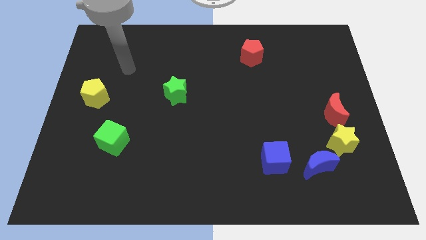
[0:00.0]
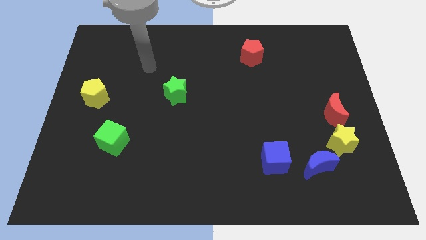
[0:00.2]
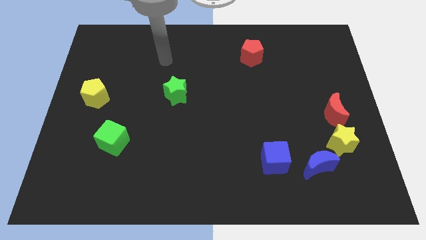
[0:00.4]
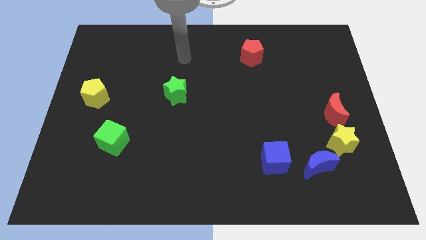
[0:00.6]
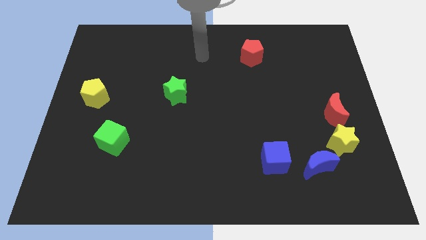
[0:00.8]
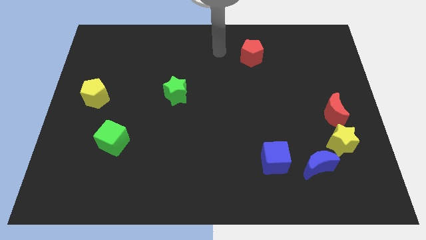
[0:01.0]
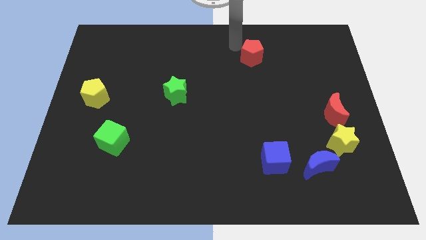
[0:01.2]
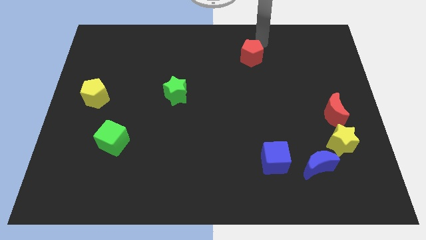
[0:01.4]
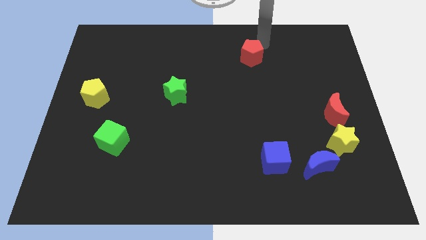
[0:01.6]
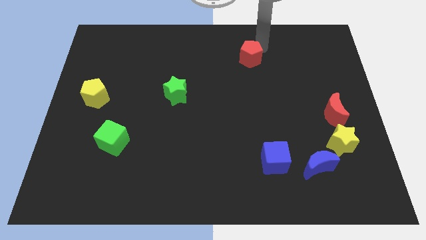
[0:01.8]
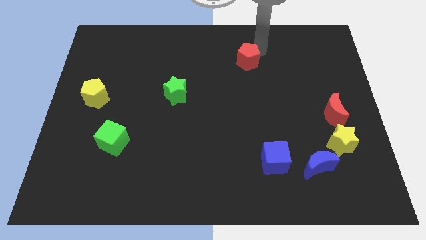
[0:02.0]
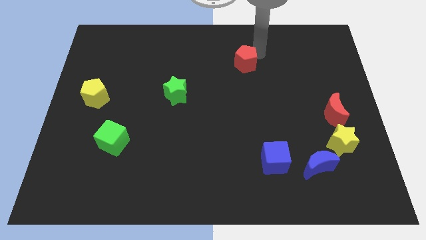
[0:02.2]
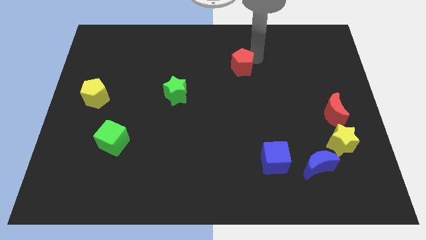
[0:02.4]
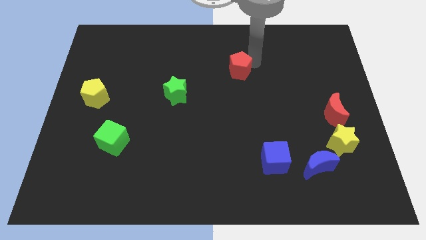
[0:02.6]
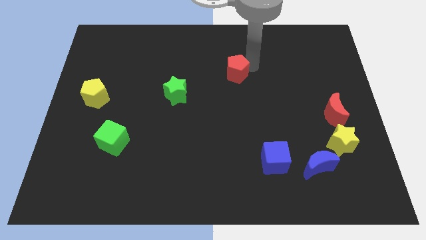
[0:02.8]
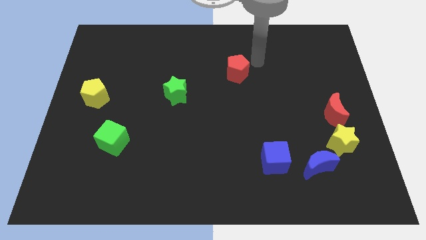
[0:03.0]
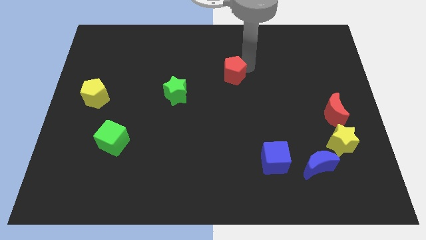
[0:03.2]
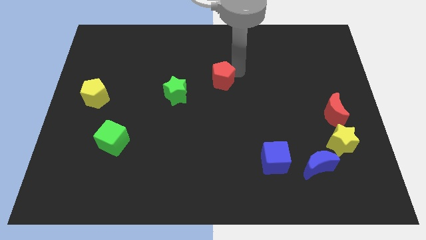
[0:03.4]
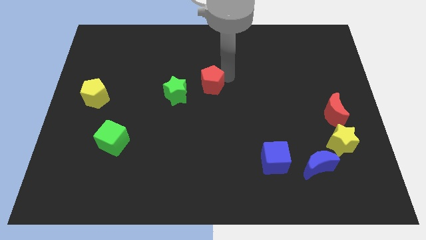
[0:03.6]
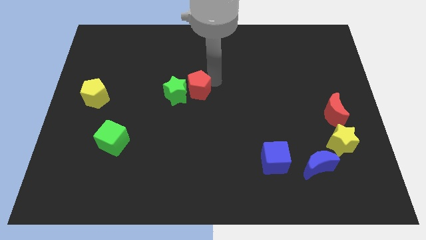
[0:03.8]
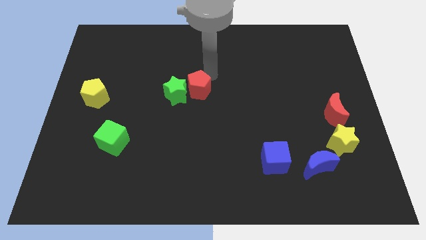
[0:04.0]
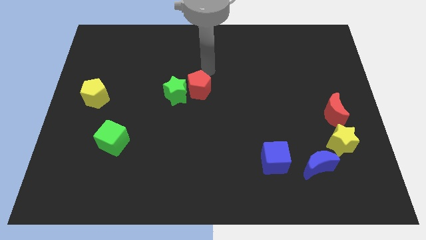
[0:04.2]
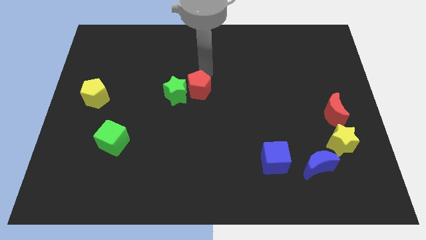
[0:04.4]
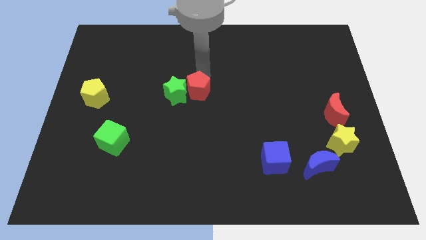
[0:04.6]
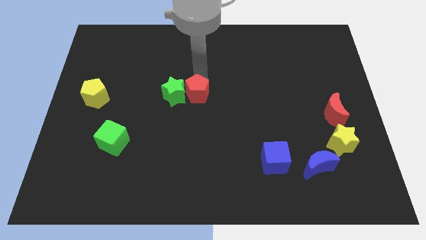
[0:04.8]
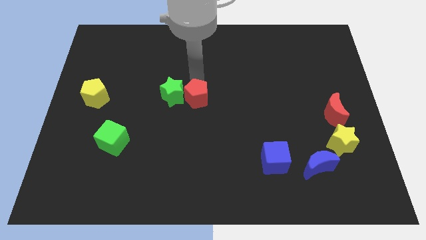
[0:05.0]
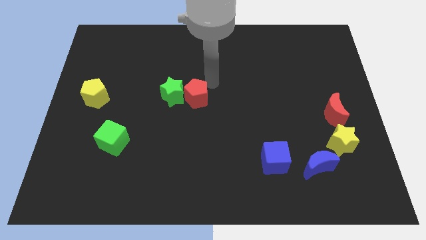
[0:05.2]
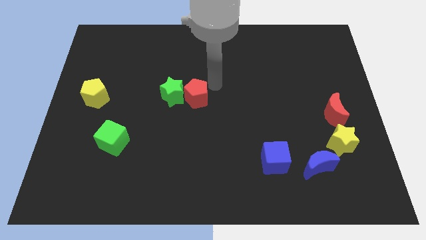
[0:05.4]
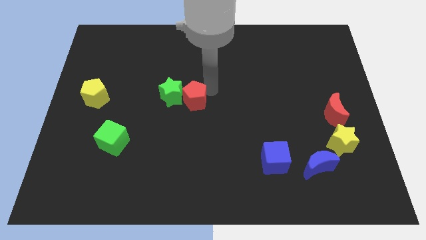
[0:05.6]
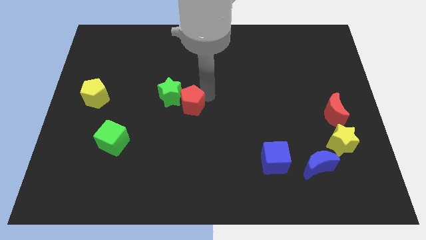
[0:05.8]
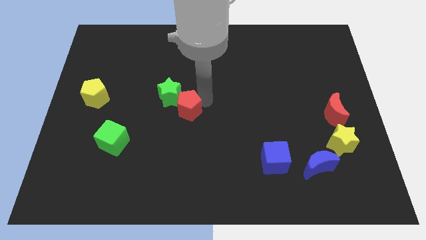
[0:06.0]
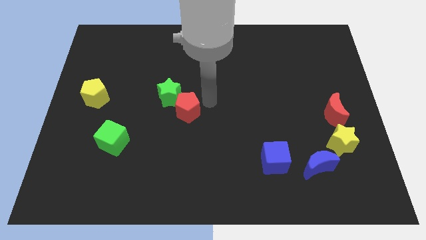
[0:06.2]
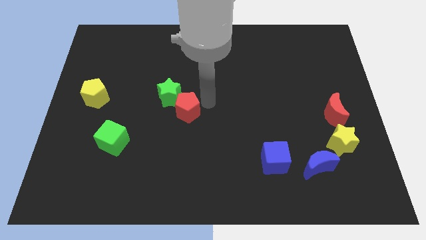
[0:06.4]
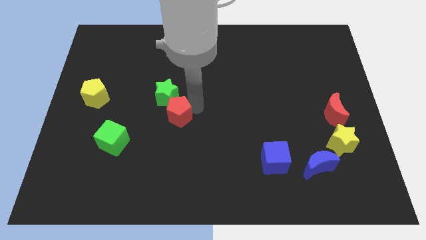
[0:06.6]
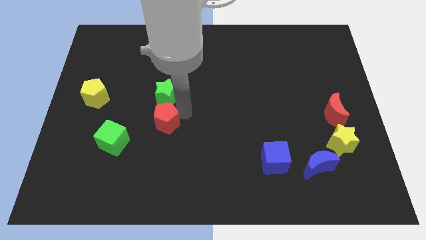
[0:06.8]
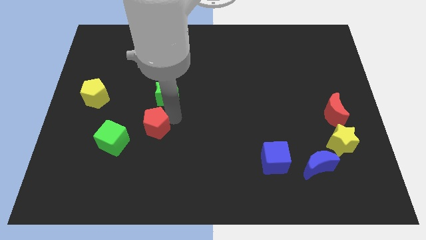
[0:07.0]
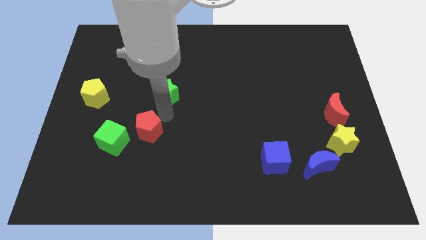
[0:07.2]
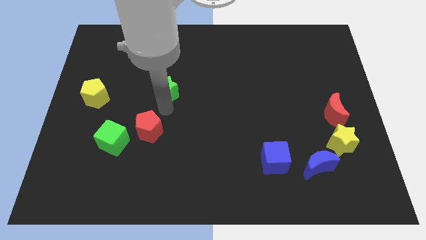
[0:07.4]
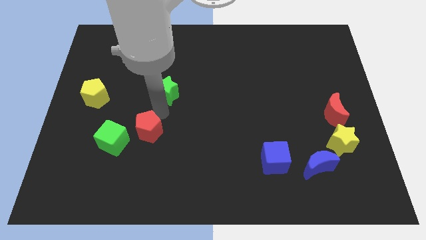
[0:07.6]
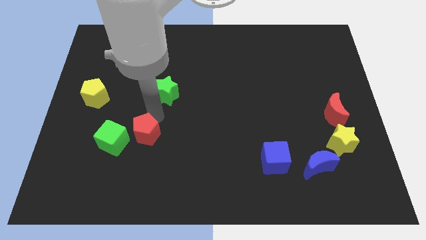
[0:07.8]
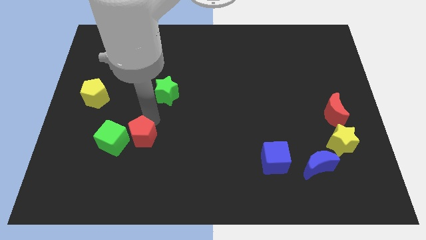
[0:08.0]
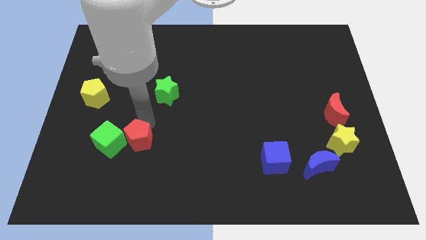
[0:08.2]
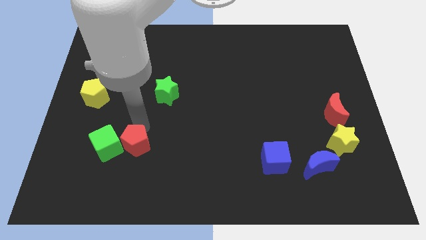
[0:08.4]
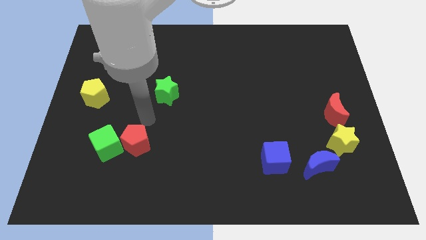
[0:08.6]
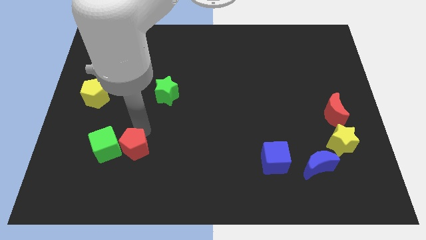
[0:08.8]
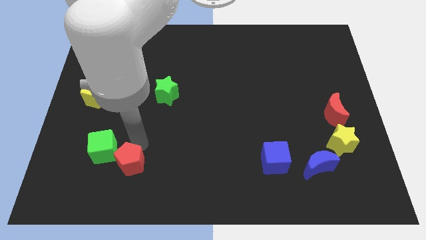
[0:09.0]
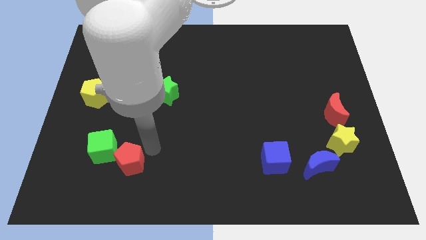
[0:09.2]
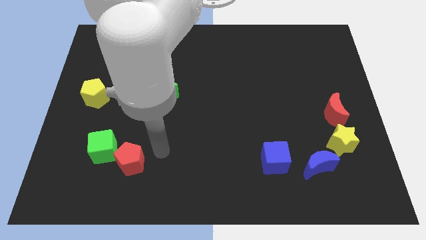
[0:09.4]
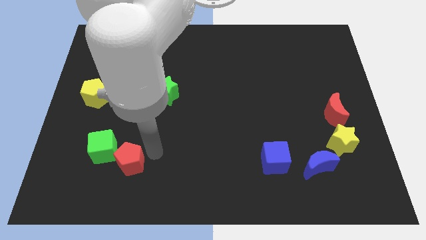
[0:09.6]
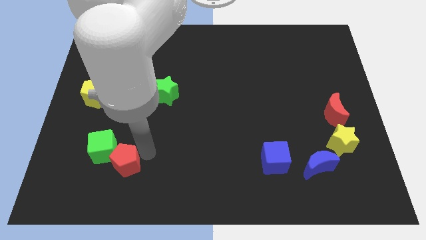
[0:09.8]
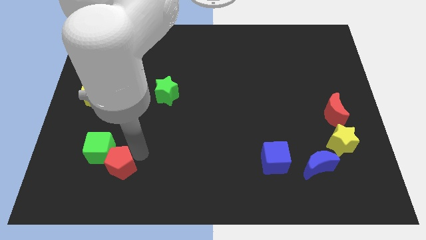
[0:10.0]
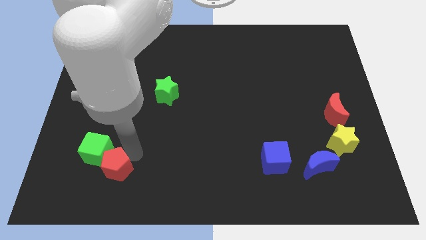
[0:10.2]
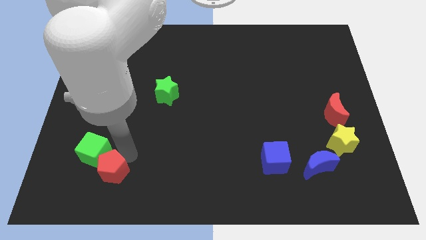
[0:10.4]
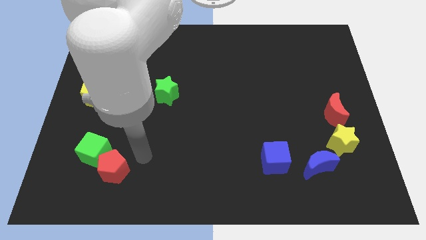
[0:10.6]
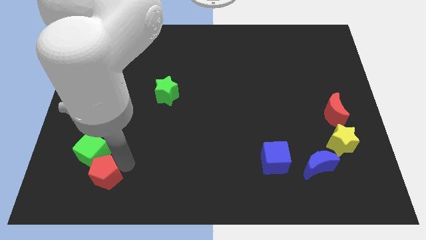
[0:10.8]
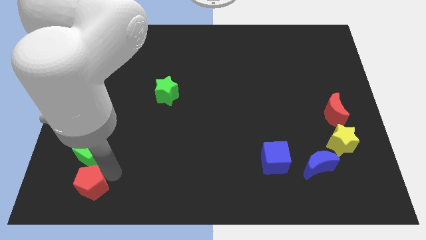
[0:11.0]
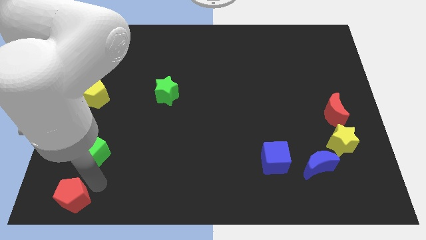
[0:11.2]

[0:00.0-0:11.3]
push the red pentagon to the bottom left of the board

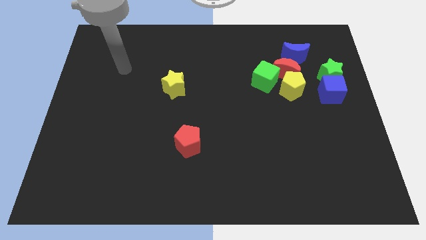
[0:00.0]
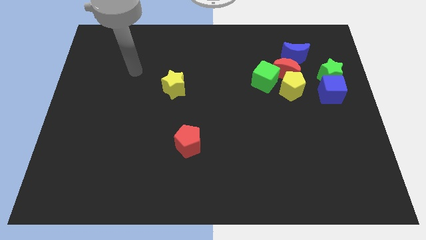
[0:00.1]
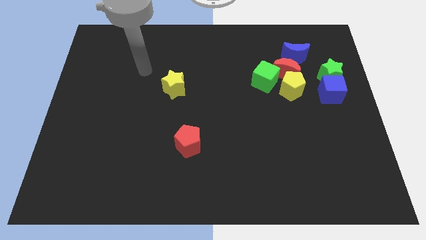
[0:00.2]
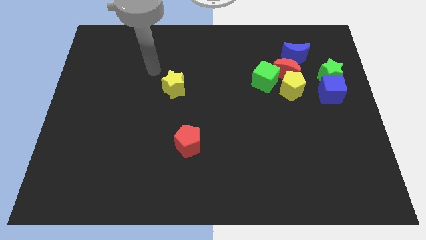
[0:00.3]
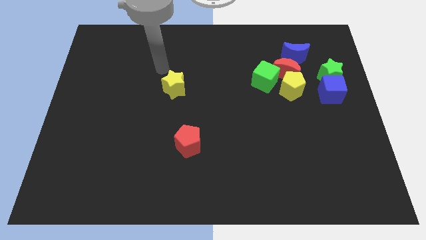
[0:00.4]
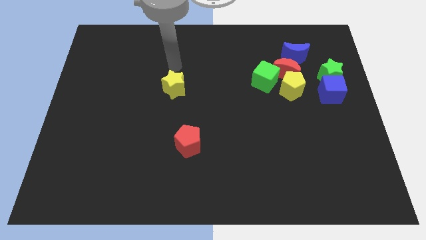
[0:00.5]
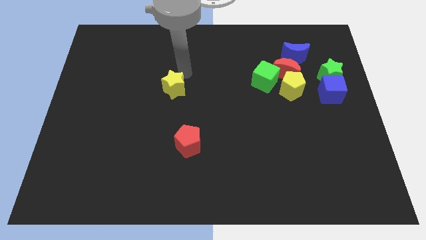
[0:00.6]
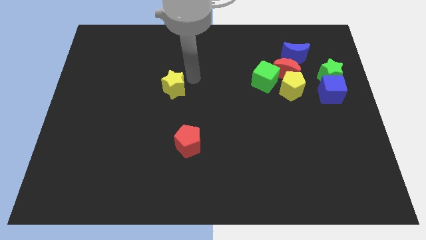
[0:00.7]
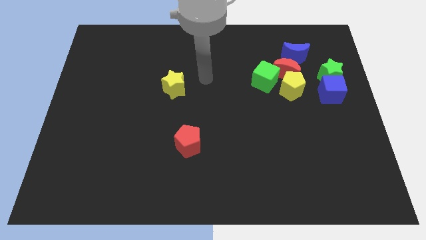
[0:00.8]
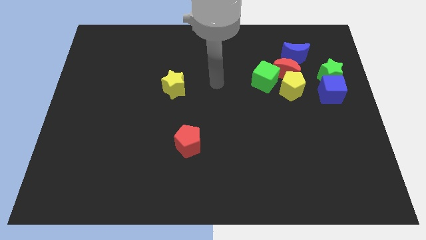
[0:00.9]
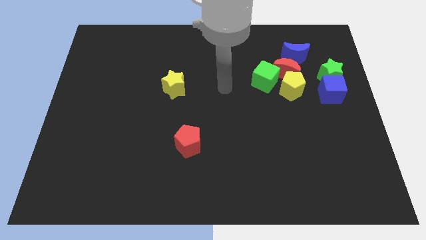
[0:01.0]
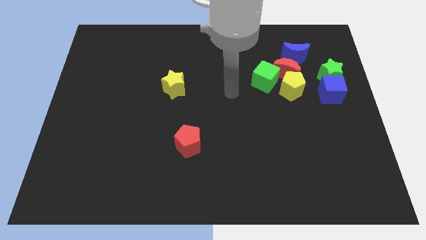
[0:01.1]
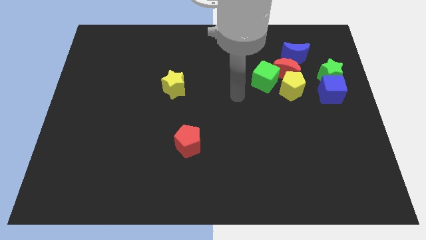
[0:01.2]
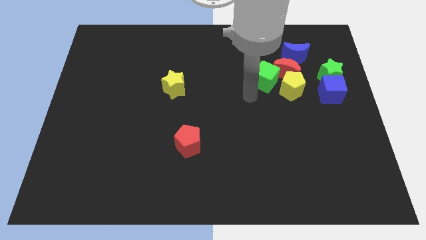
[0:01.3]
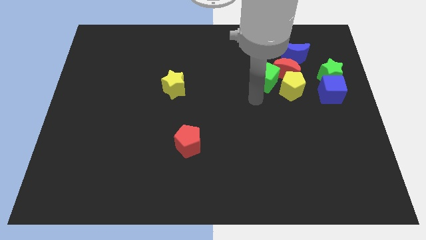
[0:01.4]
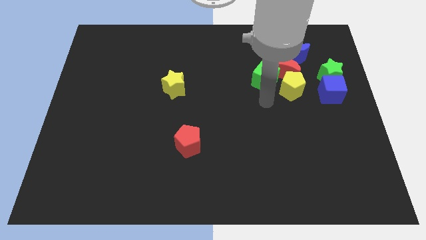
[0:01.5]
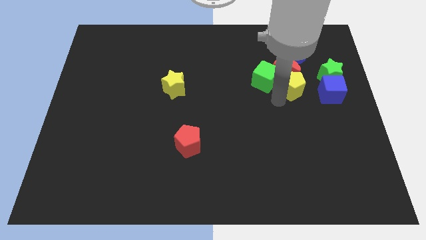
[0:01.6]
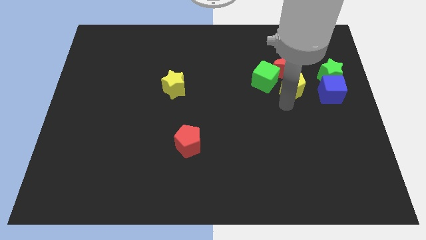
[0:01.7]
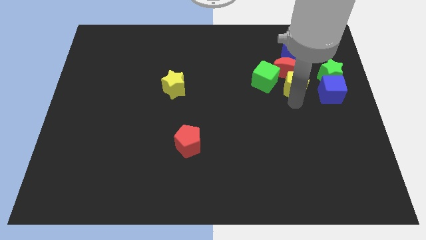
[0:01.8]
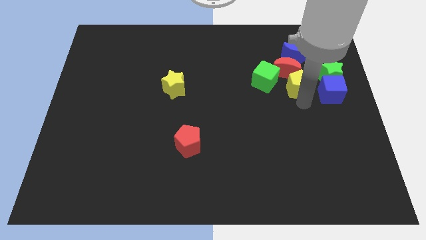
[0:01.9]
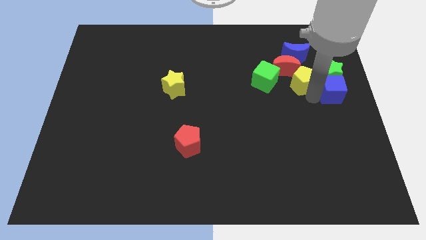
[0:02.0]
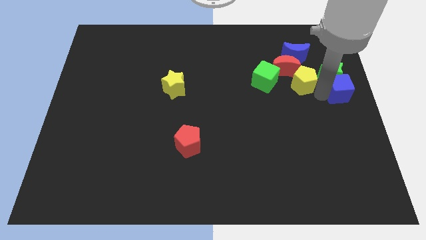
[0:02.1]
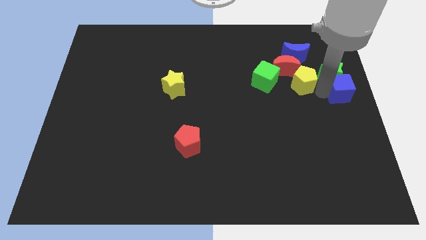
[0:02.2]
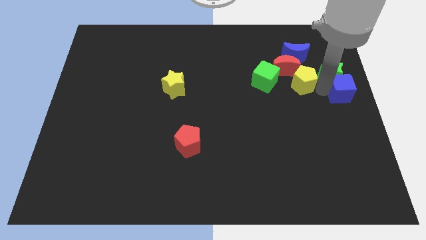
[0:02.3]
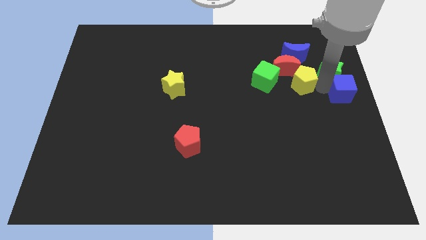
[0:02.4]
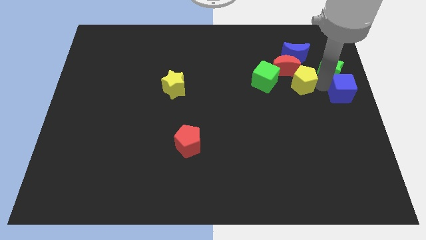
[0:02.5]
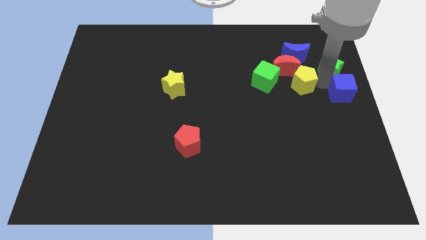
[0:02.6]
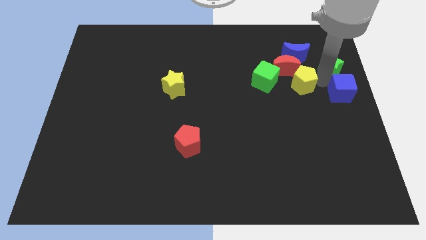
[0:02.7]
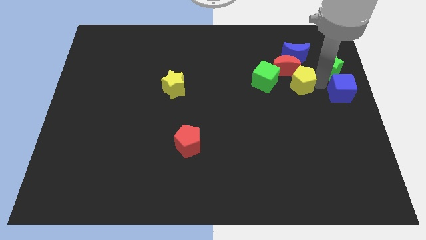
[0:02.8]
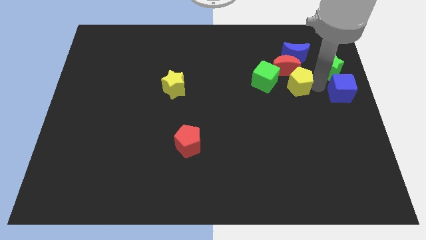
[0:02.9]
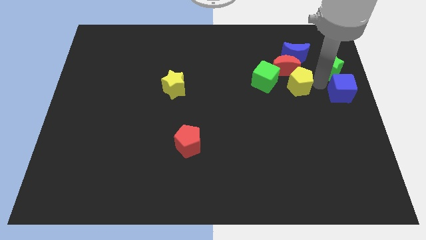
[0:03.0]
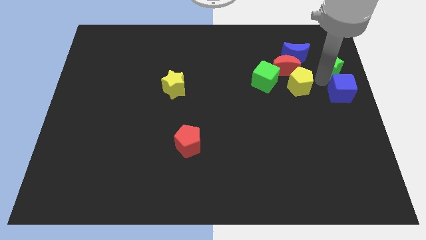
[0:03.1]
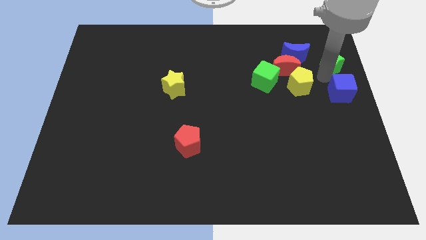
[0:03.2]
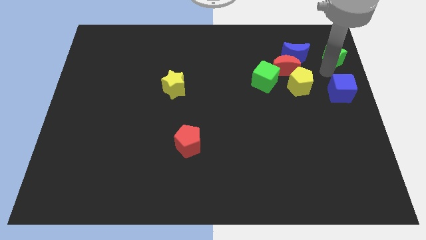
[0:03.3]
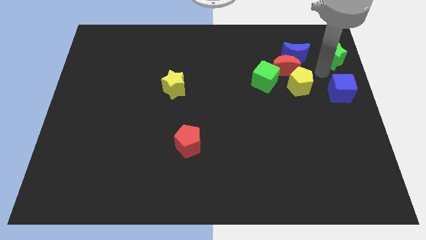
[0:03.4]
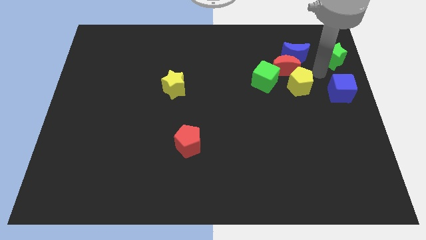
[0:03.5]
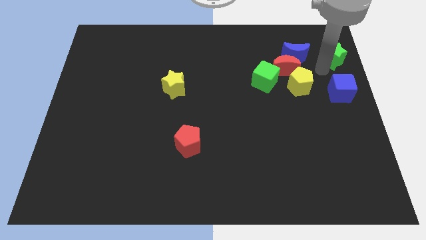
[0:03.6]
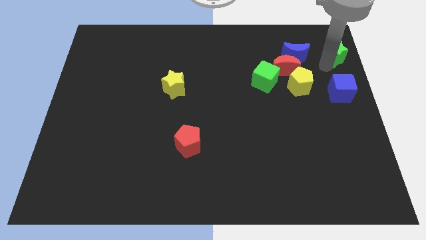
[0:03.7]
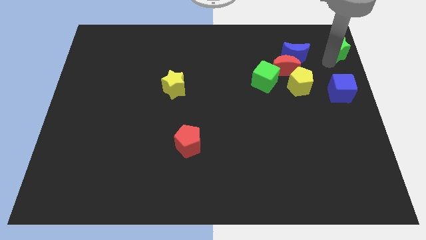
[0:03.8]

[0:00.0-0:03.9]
move the green star to the upper right corner
